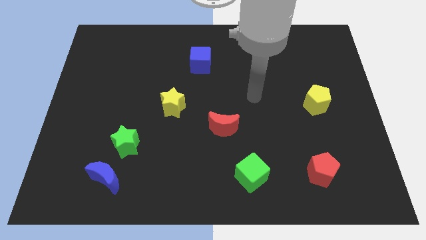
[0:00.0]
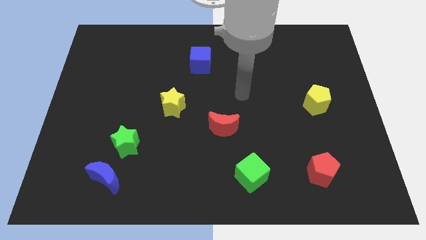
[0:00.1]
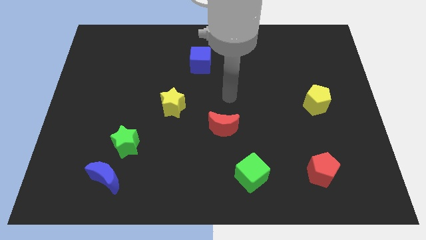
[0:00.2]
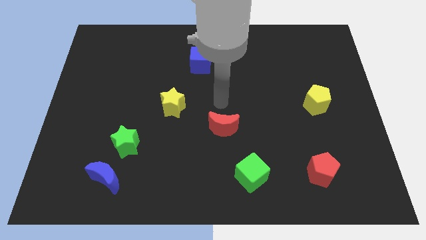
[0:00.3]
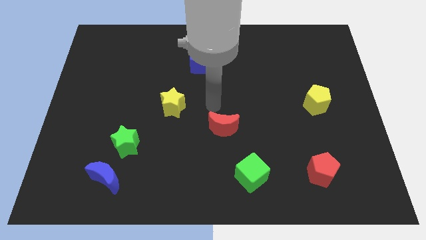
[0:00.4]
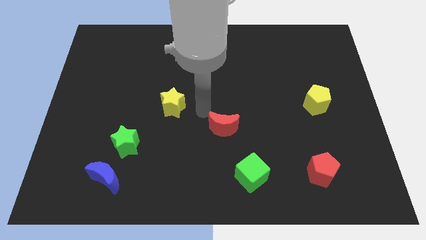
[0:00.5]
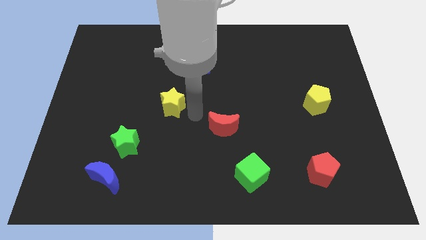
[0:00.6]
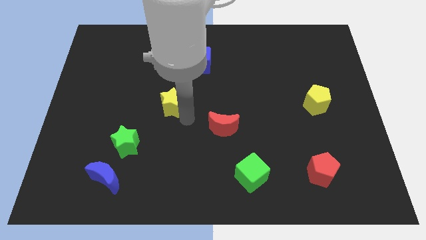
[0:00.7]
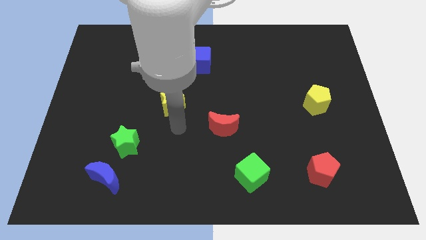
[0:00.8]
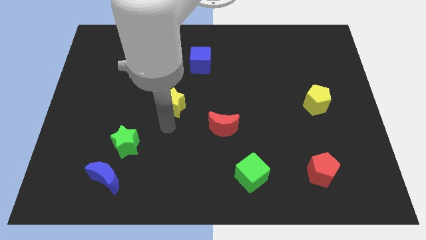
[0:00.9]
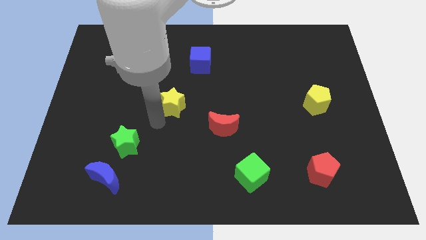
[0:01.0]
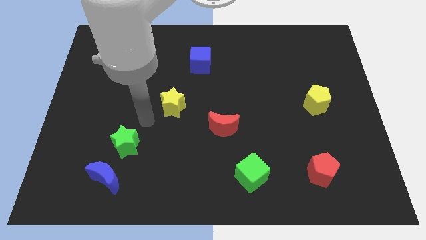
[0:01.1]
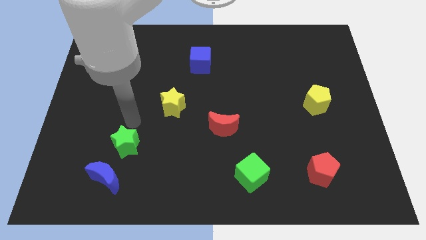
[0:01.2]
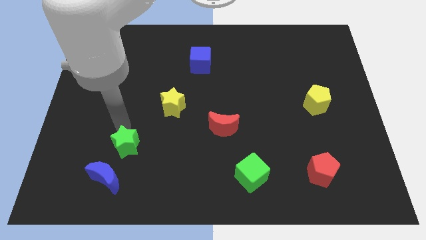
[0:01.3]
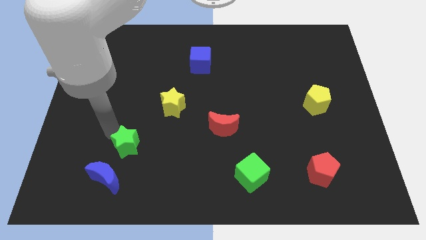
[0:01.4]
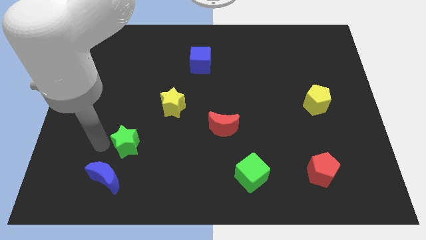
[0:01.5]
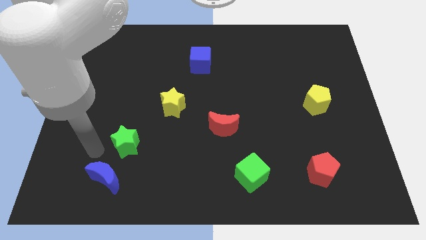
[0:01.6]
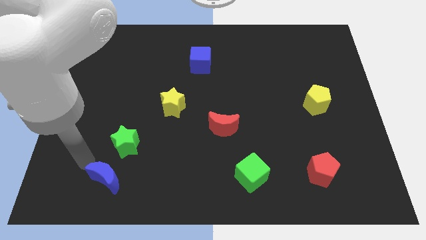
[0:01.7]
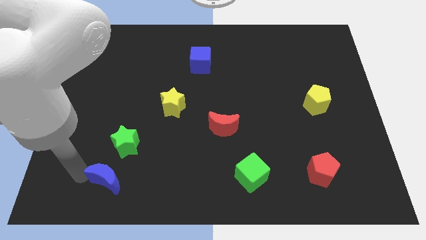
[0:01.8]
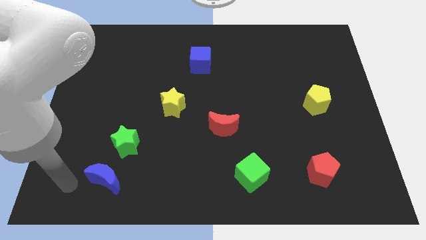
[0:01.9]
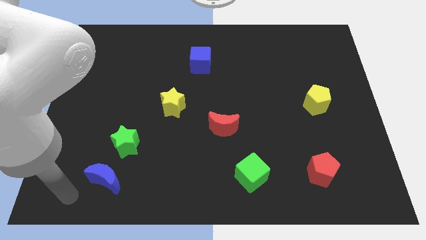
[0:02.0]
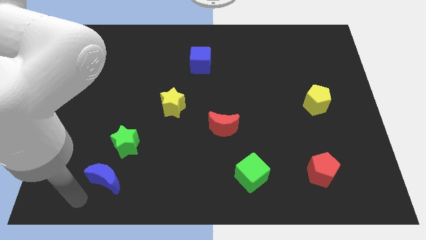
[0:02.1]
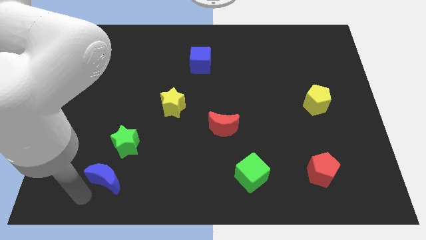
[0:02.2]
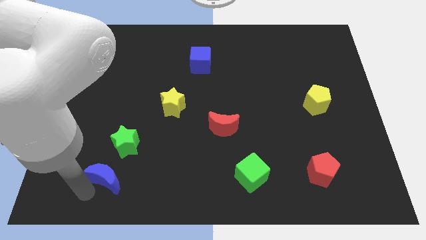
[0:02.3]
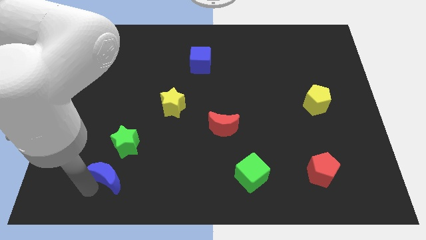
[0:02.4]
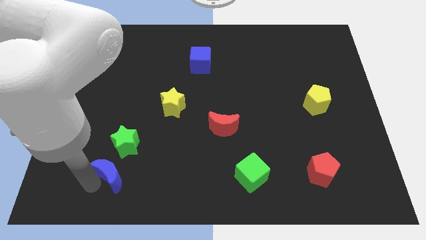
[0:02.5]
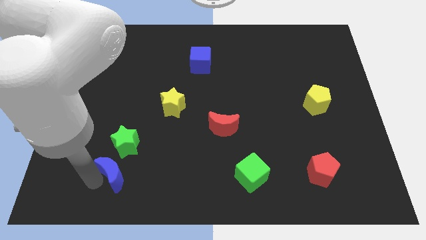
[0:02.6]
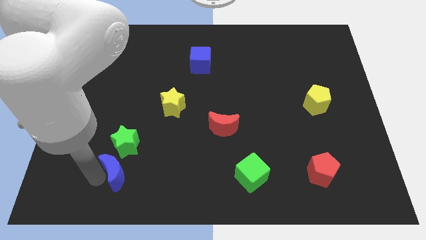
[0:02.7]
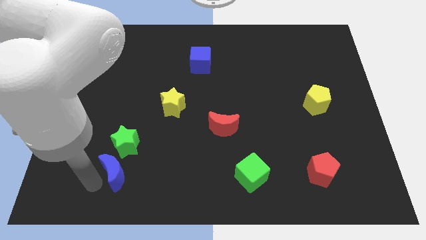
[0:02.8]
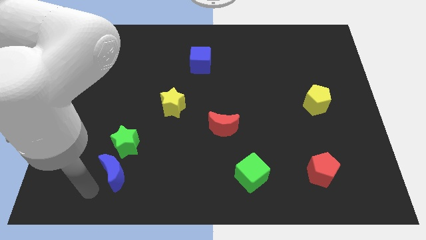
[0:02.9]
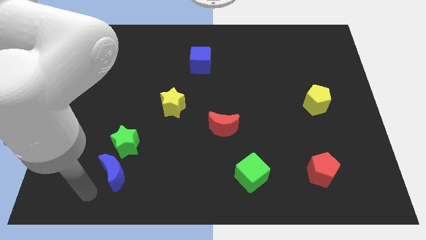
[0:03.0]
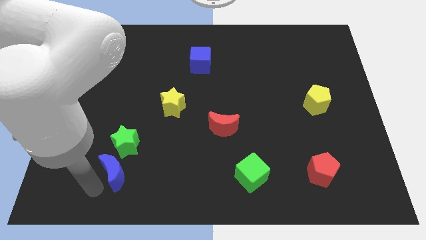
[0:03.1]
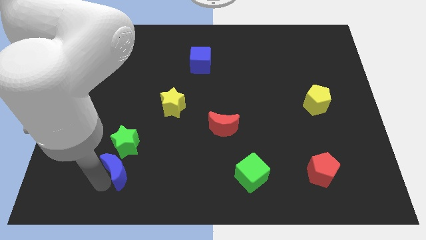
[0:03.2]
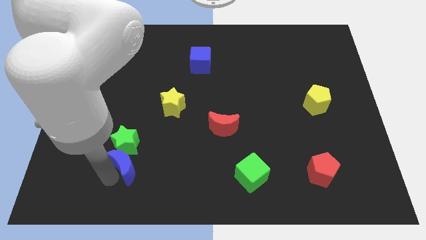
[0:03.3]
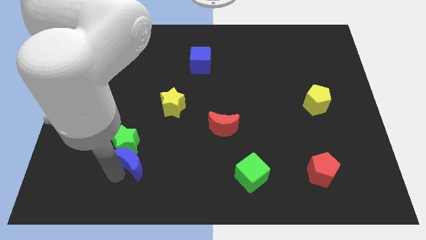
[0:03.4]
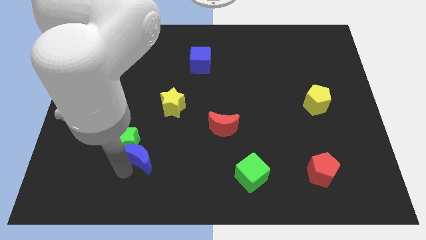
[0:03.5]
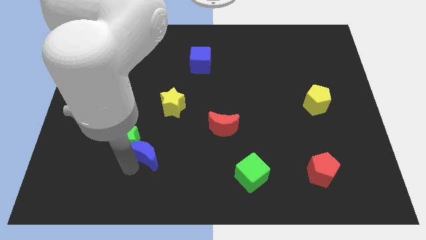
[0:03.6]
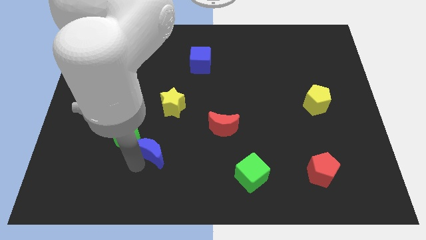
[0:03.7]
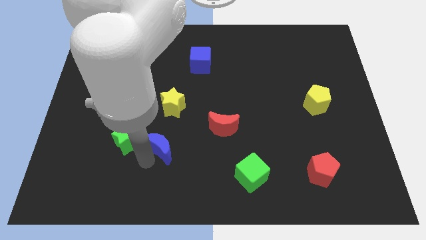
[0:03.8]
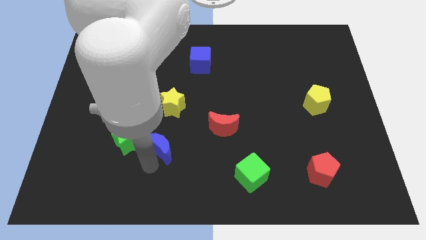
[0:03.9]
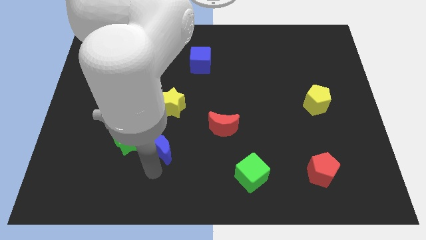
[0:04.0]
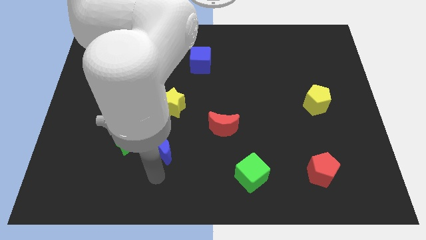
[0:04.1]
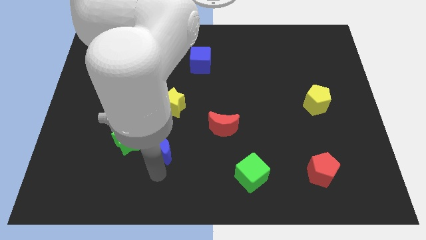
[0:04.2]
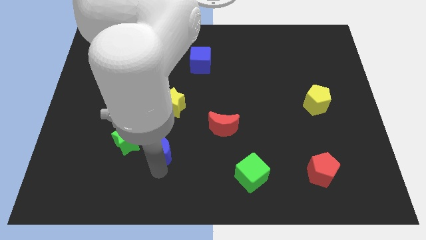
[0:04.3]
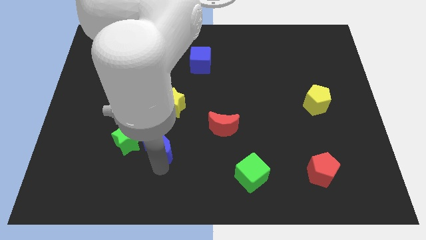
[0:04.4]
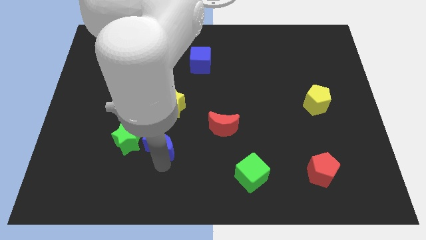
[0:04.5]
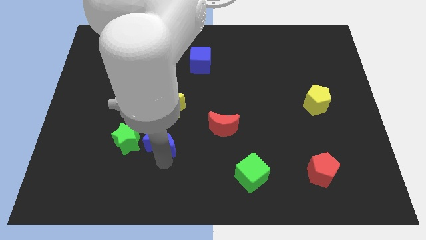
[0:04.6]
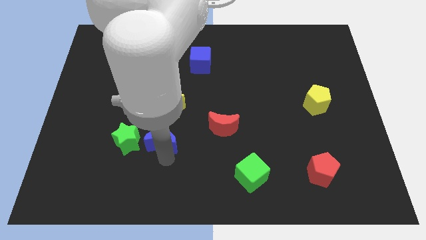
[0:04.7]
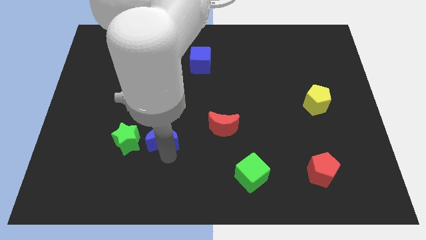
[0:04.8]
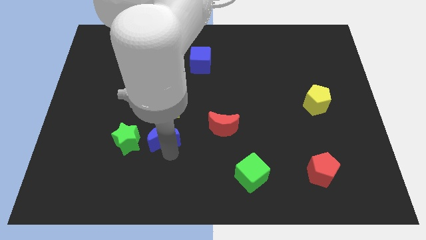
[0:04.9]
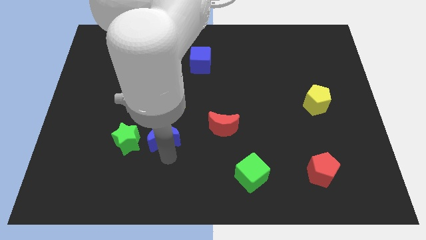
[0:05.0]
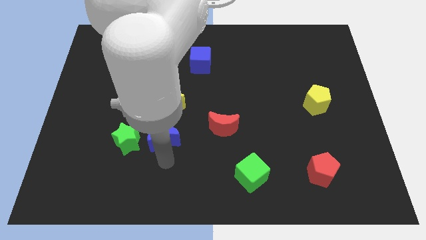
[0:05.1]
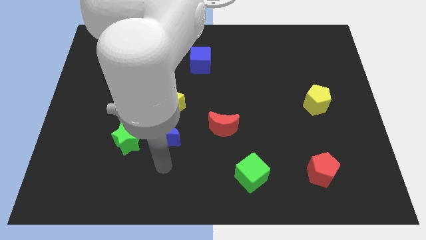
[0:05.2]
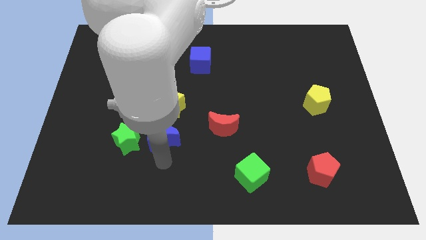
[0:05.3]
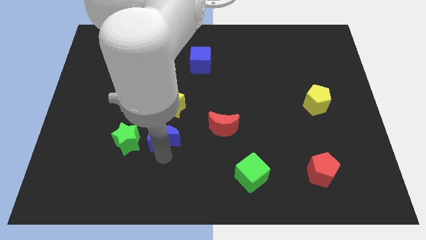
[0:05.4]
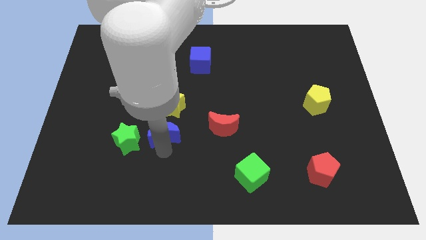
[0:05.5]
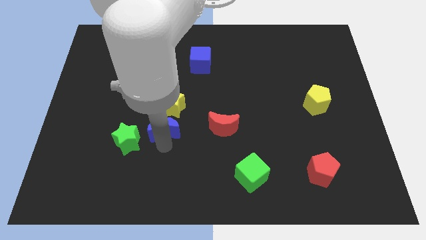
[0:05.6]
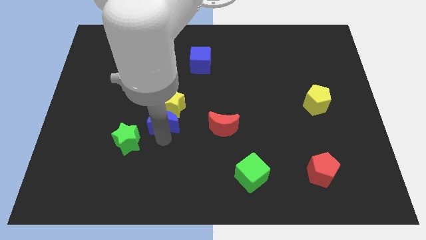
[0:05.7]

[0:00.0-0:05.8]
move the blue moon next to the yellow star

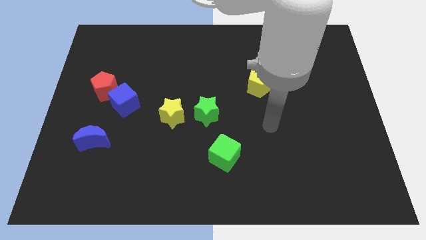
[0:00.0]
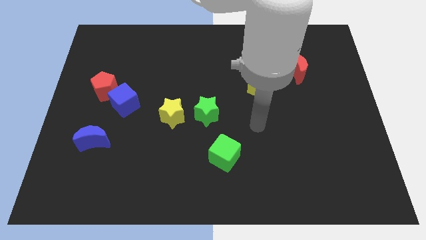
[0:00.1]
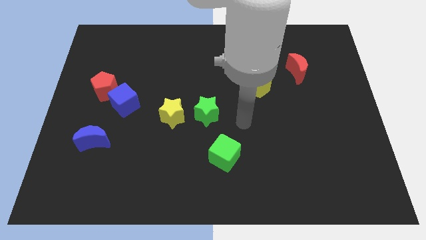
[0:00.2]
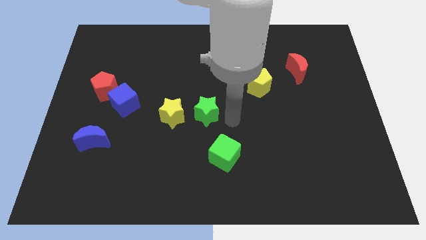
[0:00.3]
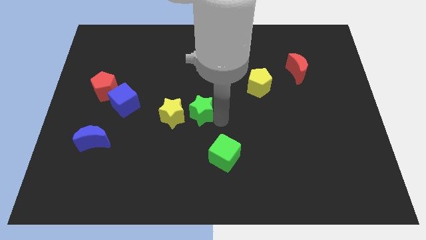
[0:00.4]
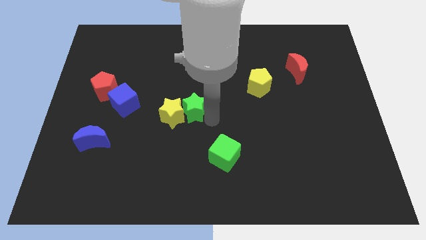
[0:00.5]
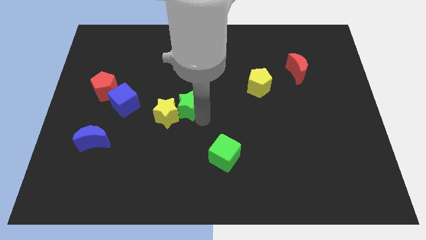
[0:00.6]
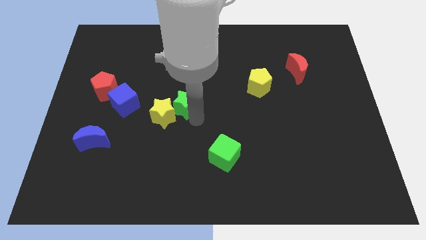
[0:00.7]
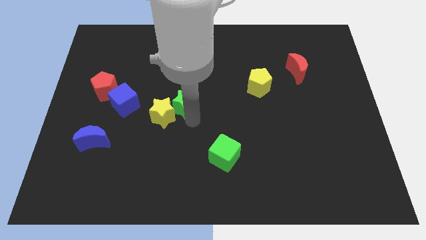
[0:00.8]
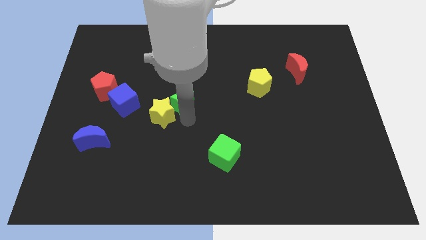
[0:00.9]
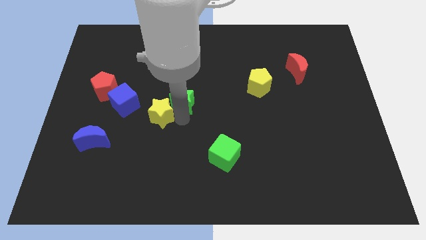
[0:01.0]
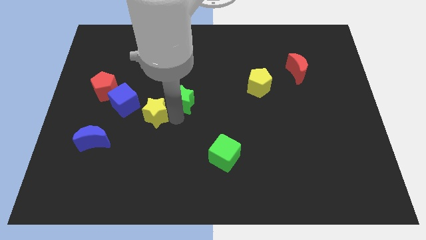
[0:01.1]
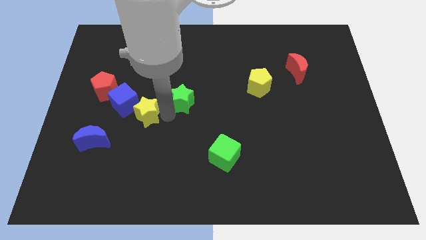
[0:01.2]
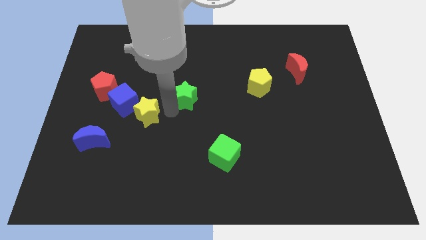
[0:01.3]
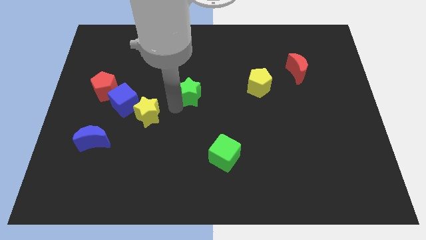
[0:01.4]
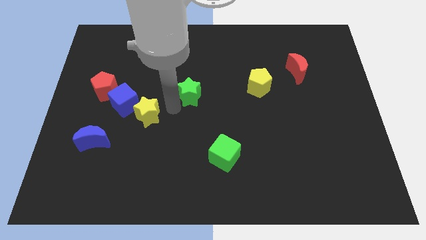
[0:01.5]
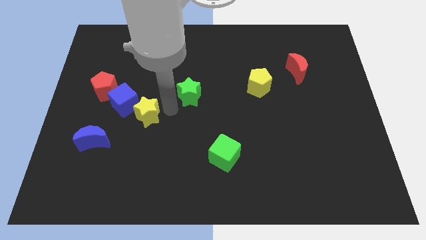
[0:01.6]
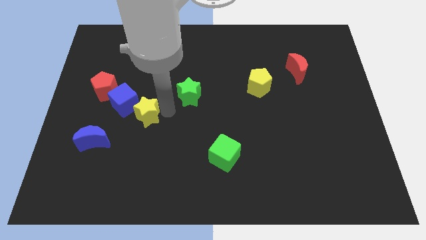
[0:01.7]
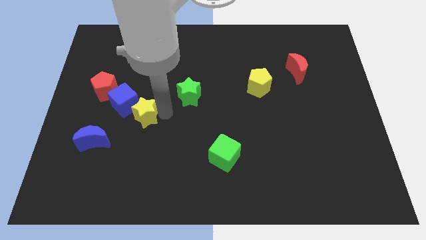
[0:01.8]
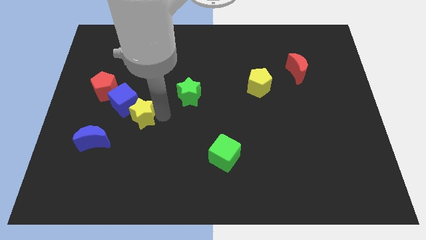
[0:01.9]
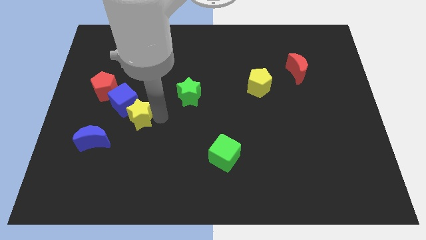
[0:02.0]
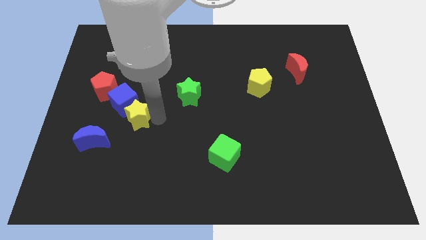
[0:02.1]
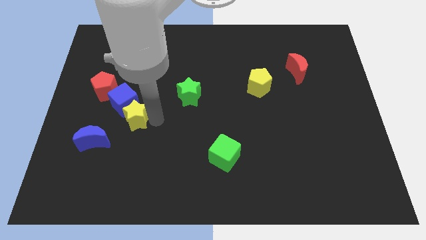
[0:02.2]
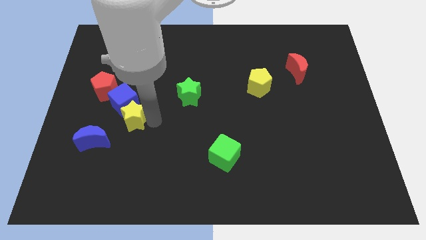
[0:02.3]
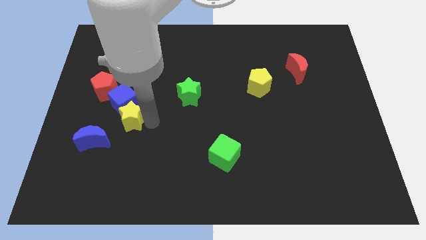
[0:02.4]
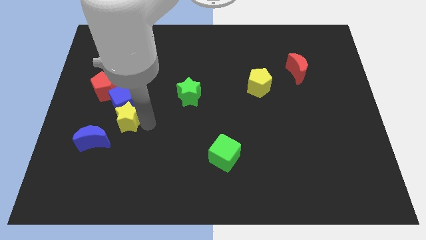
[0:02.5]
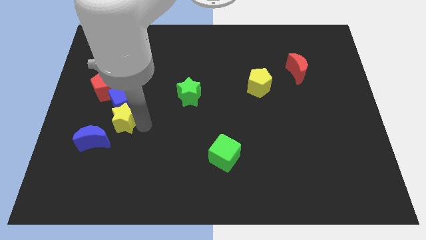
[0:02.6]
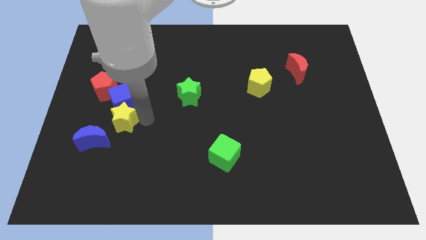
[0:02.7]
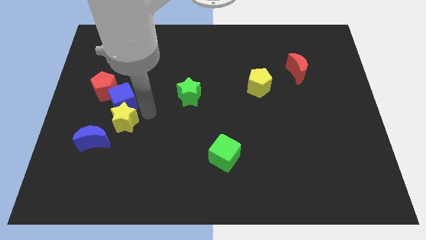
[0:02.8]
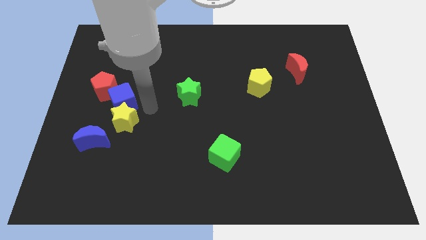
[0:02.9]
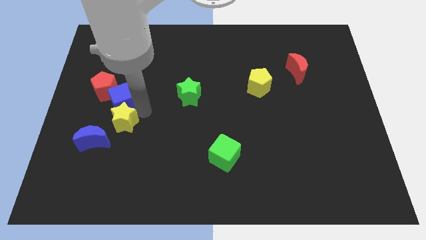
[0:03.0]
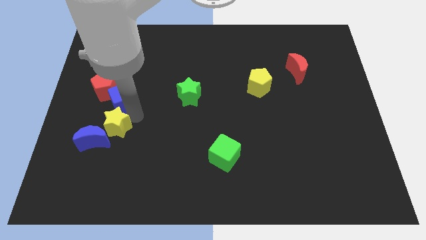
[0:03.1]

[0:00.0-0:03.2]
move the yellow star to the blue moon
